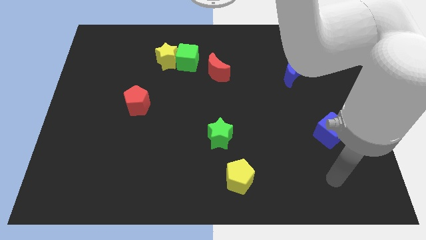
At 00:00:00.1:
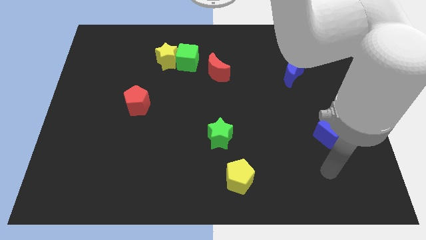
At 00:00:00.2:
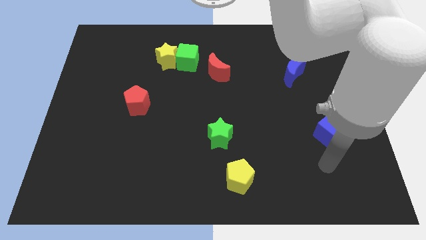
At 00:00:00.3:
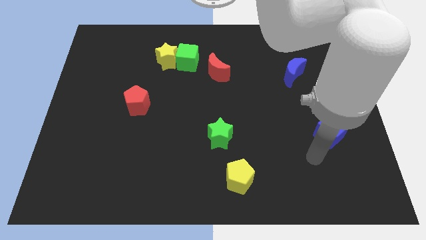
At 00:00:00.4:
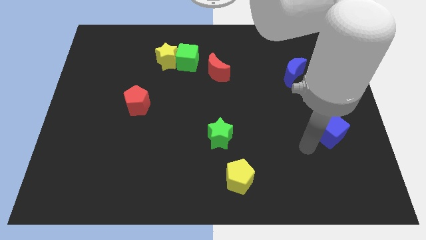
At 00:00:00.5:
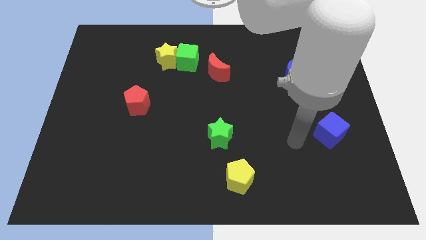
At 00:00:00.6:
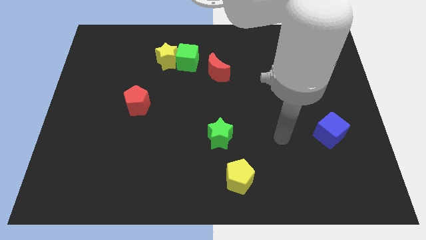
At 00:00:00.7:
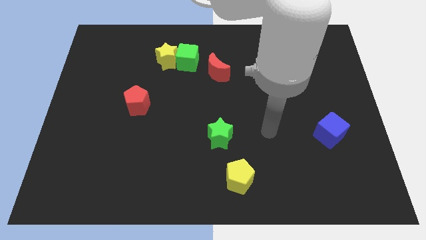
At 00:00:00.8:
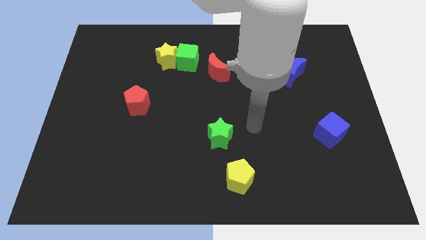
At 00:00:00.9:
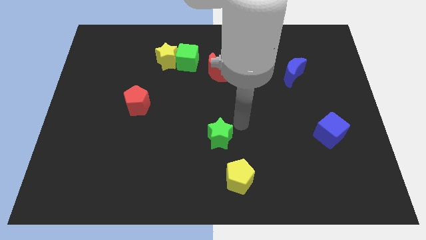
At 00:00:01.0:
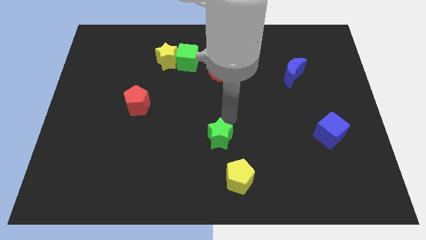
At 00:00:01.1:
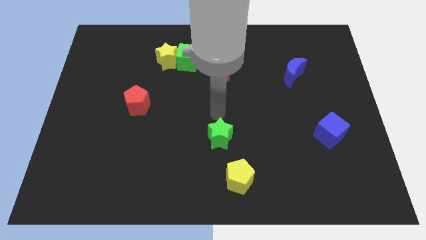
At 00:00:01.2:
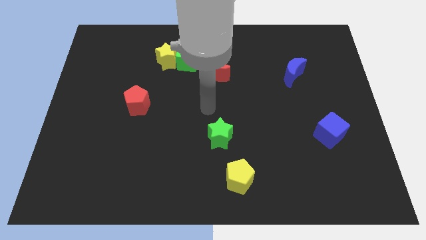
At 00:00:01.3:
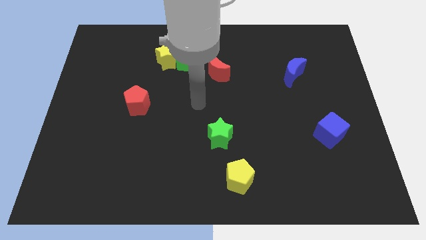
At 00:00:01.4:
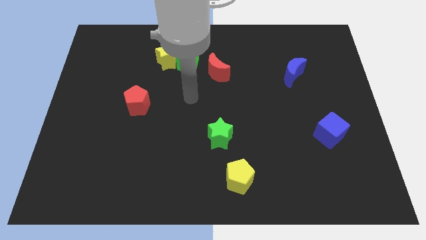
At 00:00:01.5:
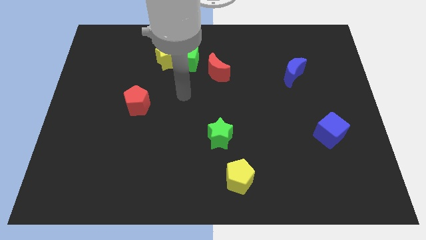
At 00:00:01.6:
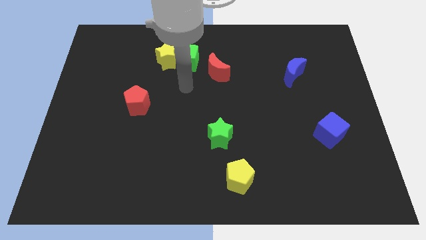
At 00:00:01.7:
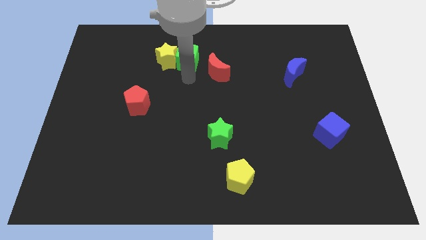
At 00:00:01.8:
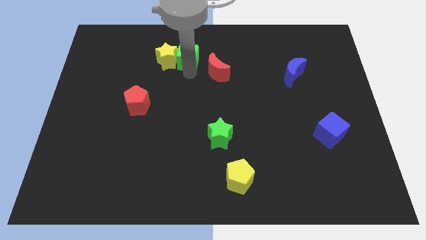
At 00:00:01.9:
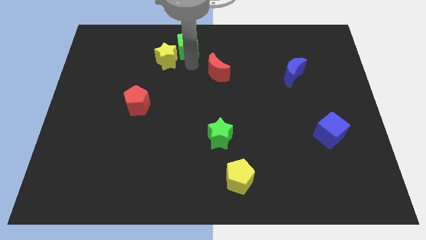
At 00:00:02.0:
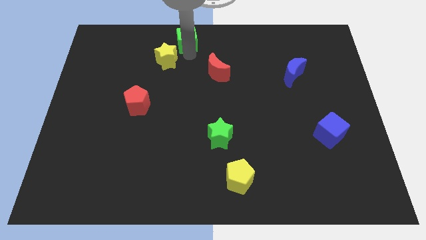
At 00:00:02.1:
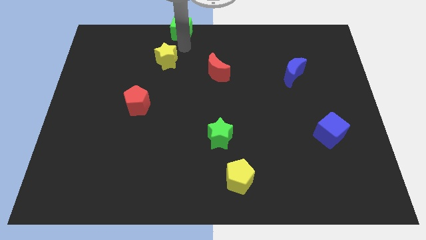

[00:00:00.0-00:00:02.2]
separate the yellow star from the green cube

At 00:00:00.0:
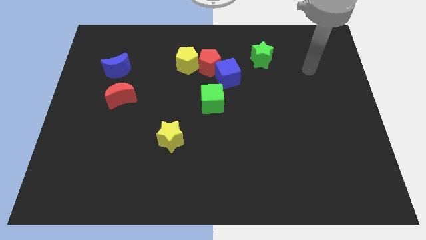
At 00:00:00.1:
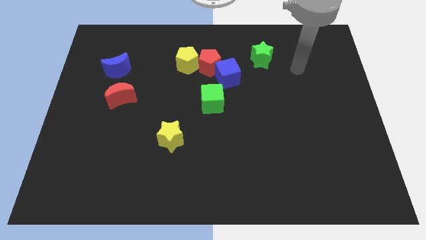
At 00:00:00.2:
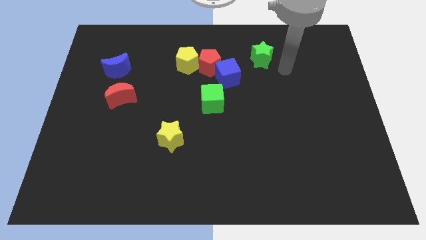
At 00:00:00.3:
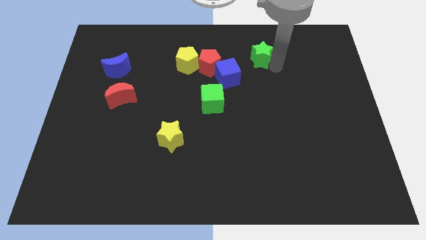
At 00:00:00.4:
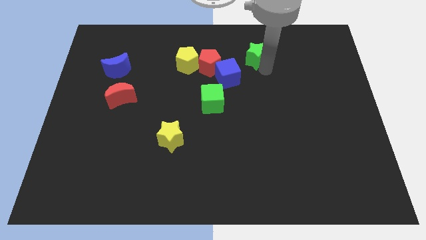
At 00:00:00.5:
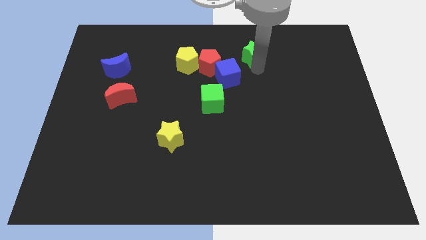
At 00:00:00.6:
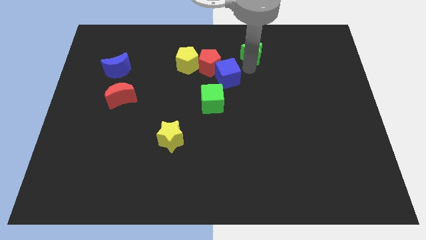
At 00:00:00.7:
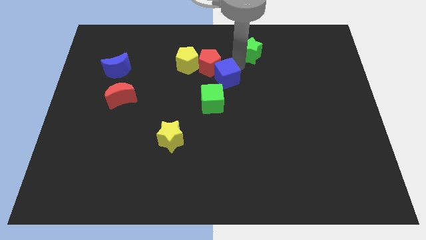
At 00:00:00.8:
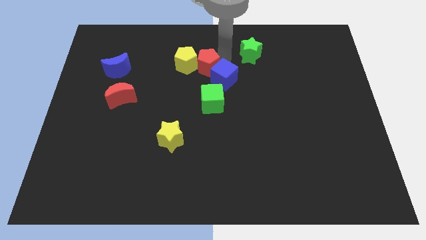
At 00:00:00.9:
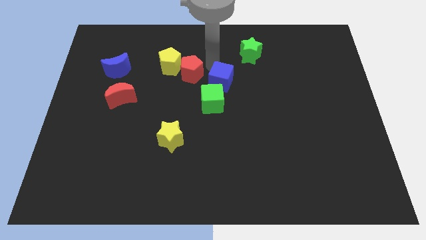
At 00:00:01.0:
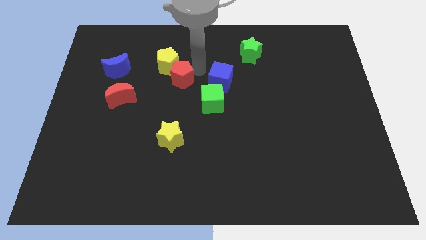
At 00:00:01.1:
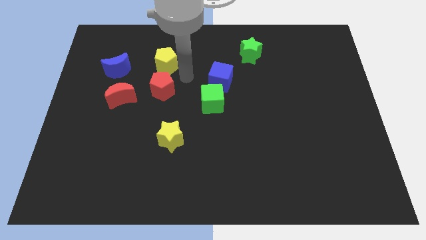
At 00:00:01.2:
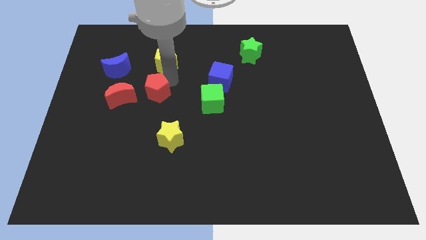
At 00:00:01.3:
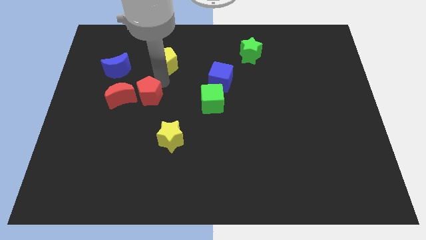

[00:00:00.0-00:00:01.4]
move the yellow pentagon away from the red pentagon

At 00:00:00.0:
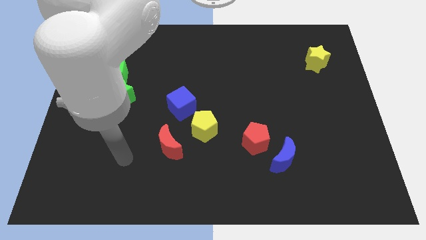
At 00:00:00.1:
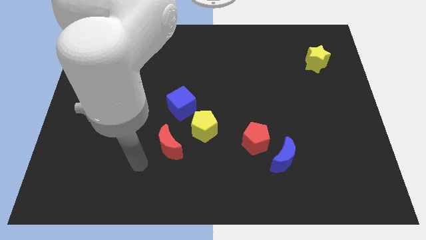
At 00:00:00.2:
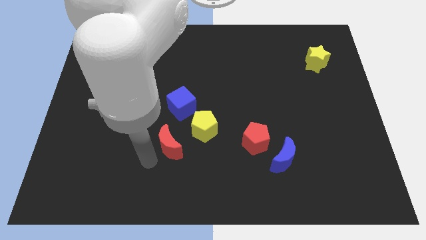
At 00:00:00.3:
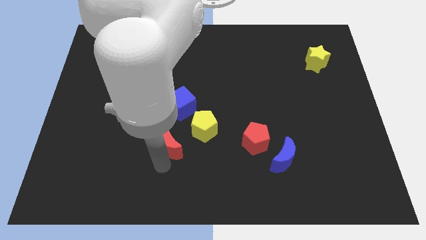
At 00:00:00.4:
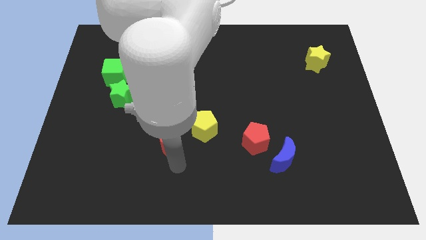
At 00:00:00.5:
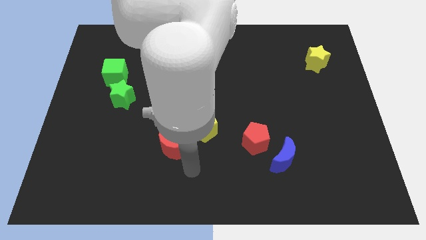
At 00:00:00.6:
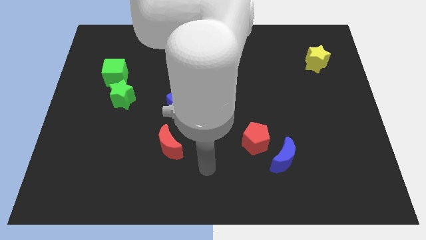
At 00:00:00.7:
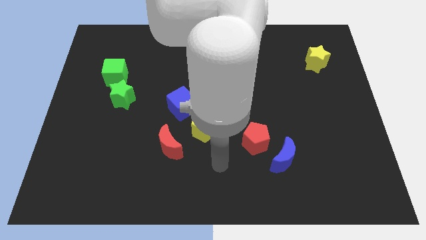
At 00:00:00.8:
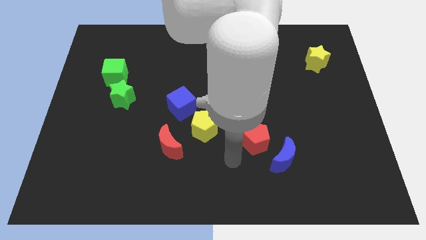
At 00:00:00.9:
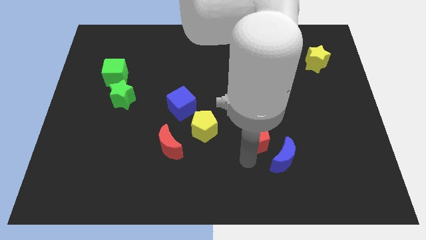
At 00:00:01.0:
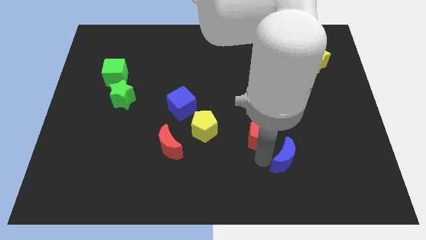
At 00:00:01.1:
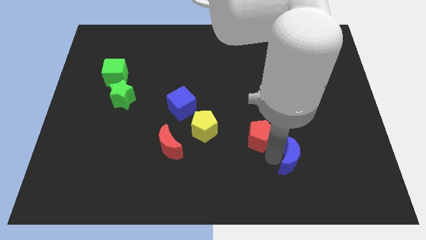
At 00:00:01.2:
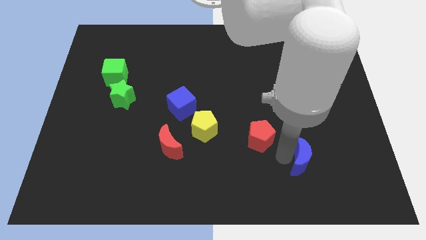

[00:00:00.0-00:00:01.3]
move the red pentagon away from the blue moon

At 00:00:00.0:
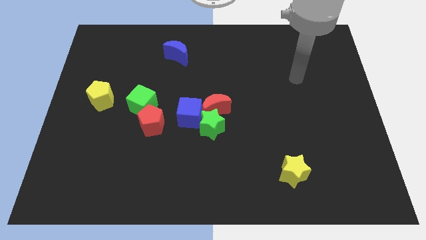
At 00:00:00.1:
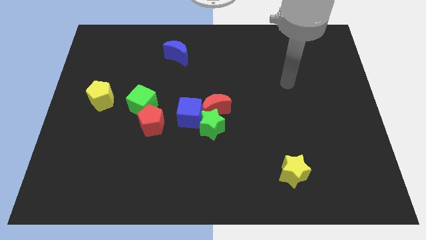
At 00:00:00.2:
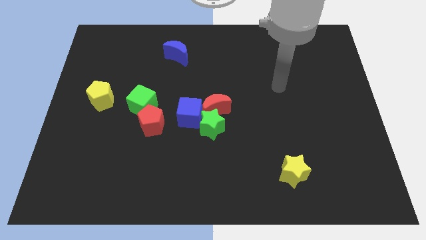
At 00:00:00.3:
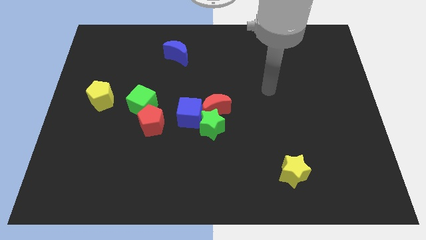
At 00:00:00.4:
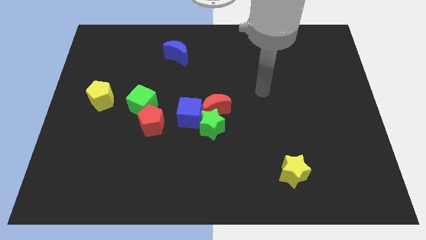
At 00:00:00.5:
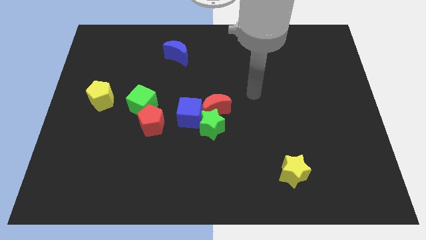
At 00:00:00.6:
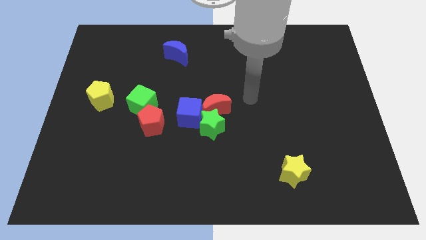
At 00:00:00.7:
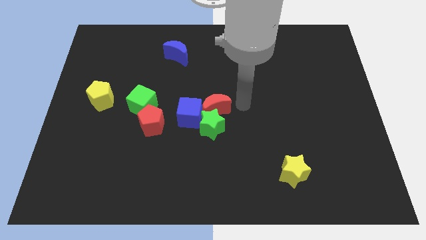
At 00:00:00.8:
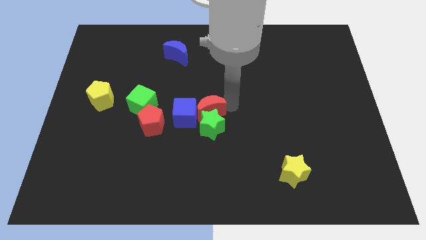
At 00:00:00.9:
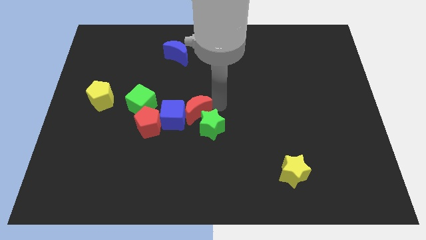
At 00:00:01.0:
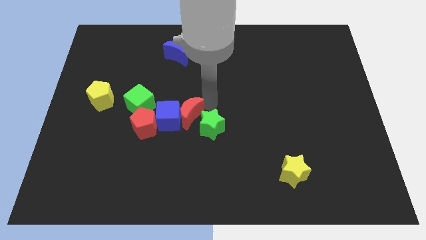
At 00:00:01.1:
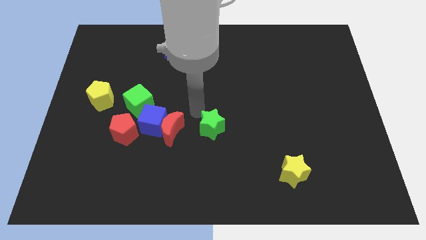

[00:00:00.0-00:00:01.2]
move the green star away from the red moon and blue cube

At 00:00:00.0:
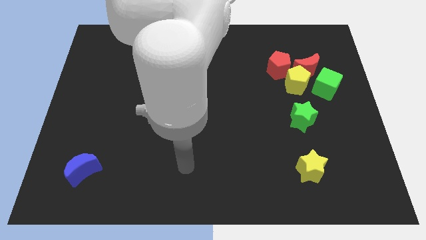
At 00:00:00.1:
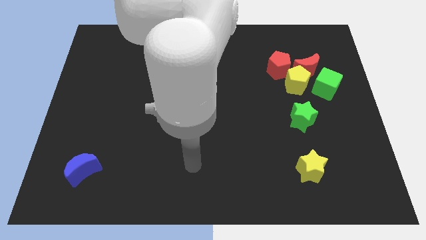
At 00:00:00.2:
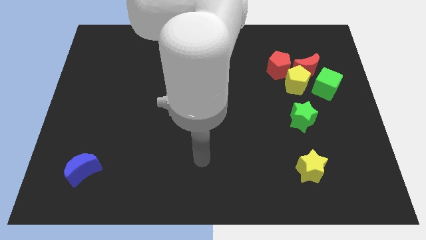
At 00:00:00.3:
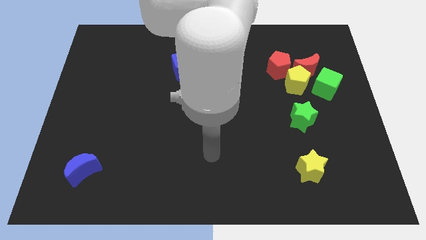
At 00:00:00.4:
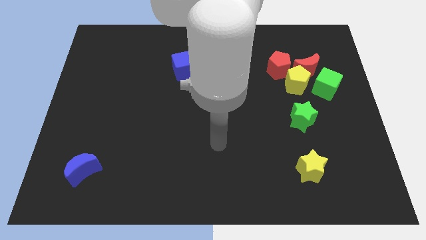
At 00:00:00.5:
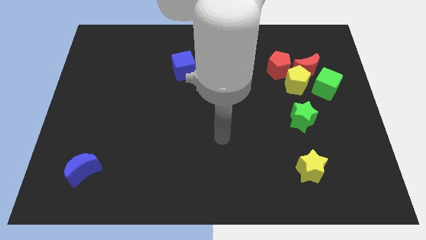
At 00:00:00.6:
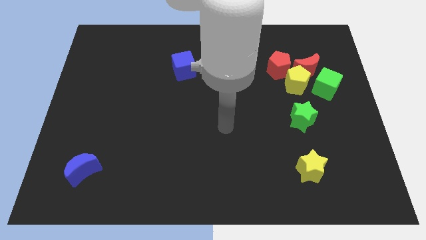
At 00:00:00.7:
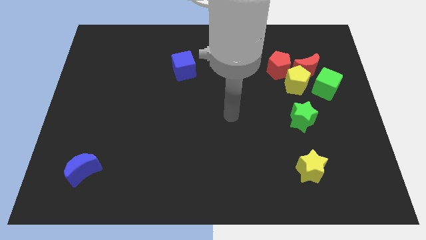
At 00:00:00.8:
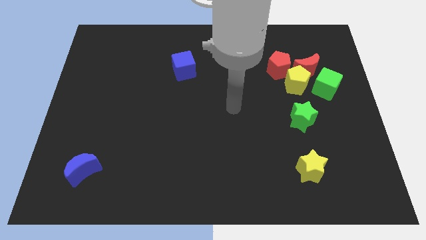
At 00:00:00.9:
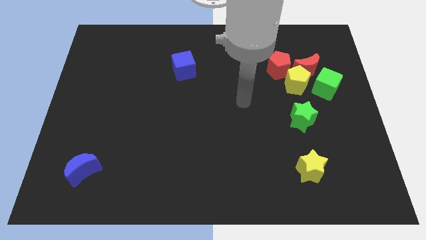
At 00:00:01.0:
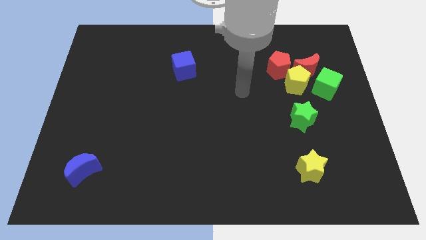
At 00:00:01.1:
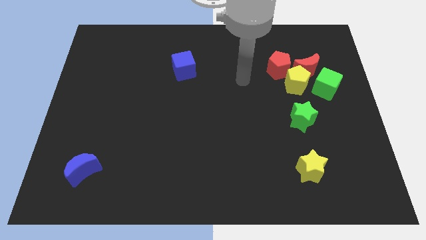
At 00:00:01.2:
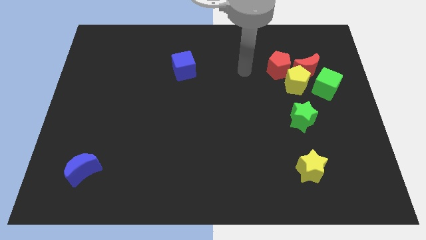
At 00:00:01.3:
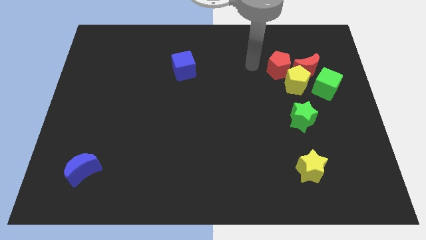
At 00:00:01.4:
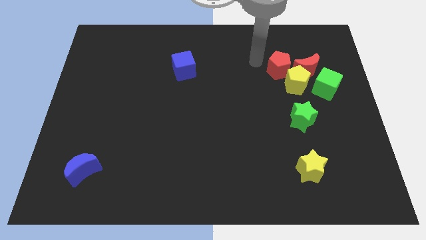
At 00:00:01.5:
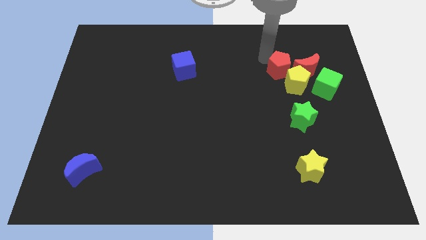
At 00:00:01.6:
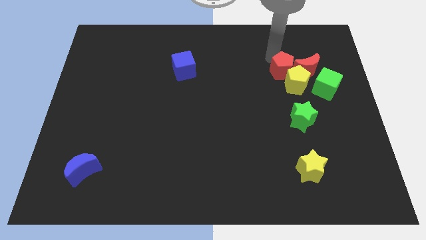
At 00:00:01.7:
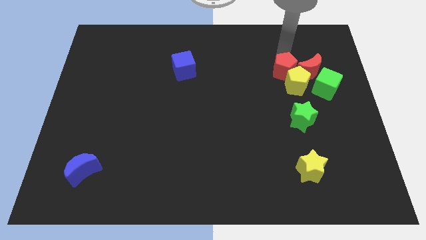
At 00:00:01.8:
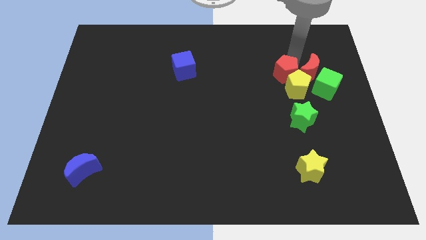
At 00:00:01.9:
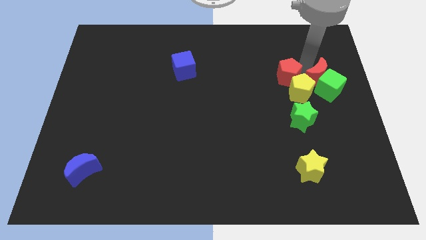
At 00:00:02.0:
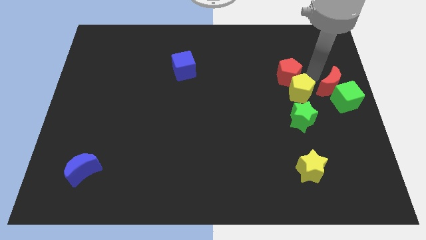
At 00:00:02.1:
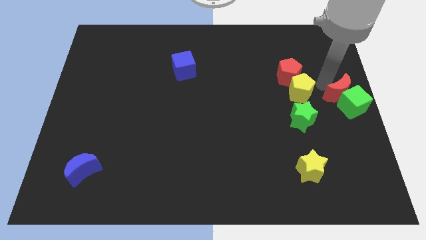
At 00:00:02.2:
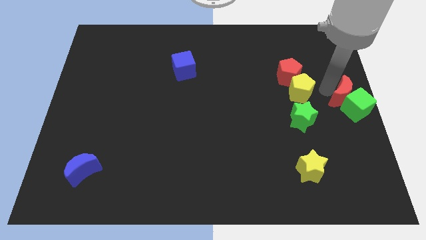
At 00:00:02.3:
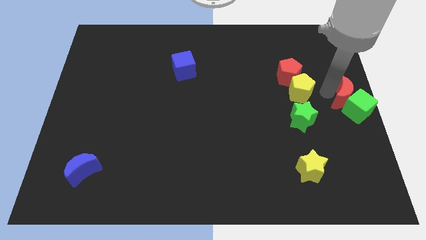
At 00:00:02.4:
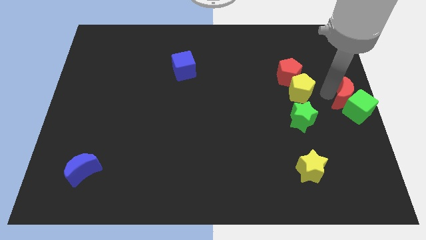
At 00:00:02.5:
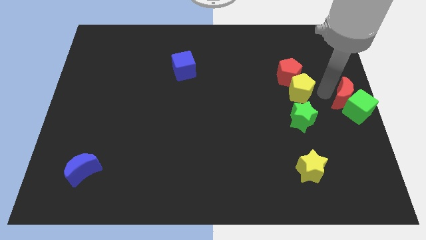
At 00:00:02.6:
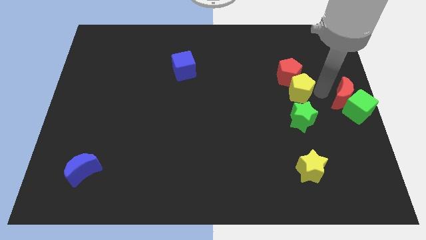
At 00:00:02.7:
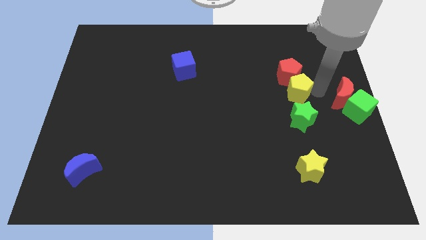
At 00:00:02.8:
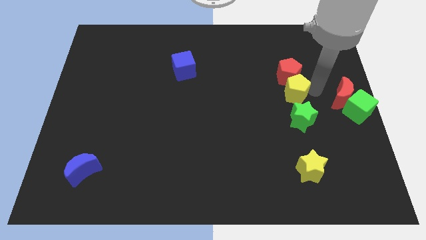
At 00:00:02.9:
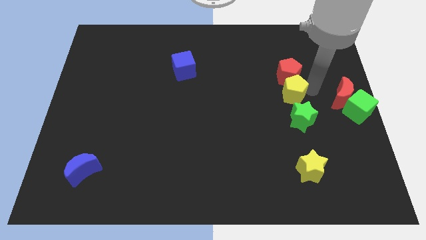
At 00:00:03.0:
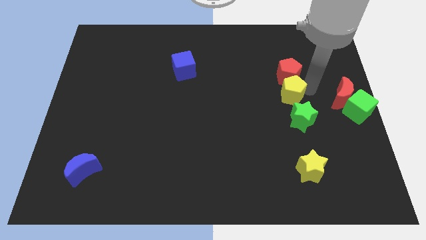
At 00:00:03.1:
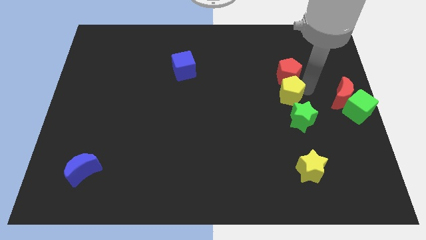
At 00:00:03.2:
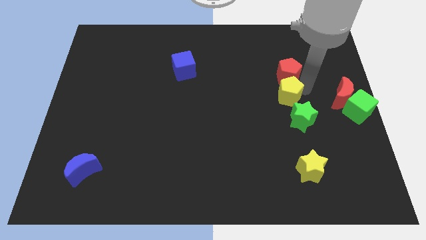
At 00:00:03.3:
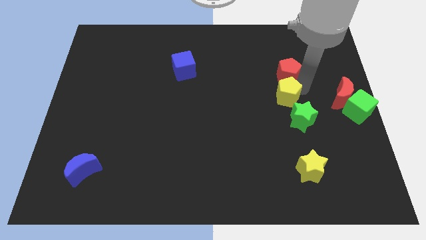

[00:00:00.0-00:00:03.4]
separate the yellow pentagon from the clump
